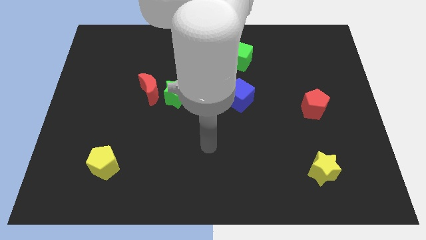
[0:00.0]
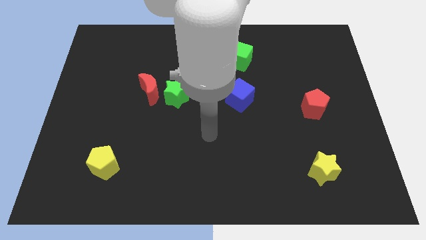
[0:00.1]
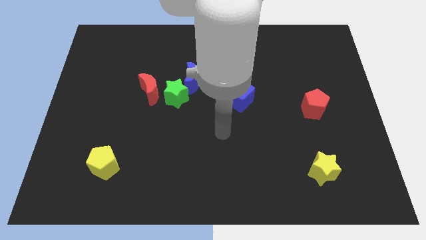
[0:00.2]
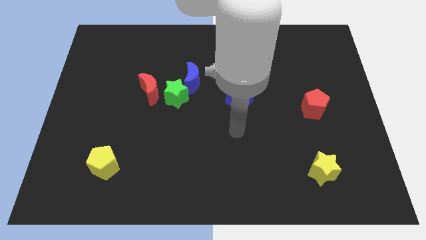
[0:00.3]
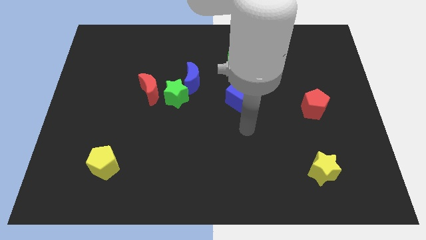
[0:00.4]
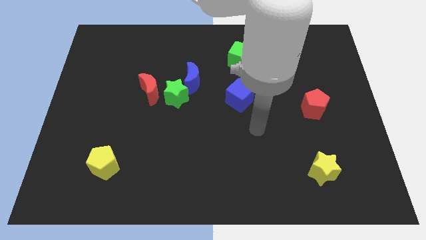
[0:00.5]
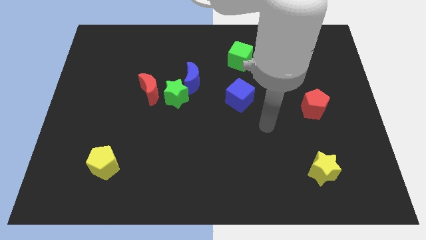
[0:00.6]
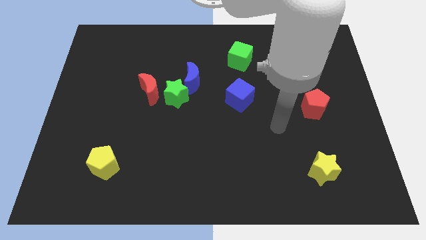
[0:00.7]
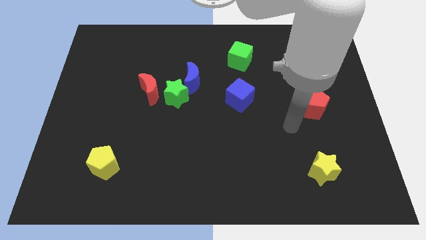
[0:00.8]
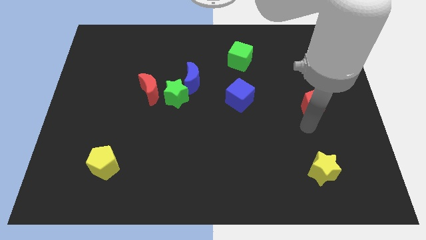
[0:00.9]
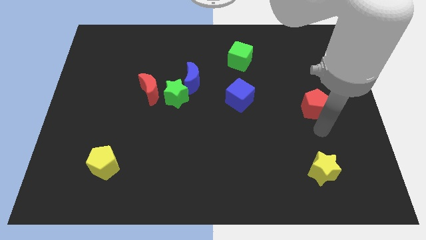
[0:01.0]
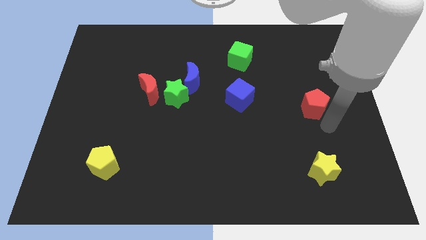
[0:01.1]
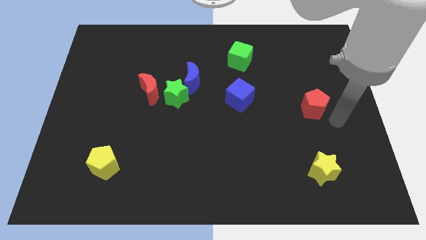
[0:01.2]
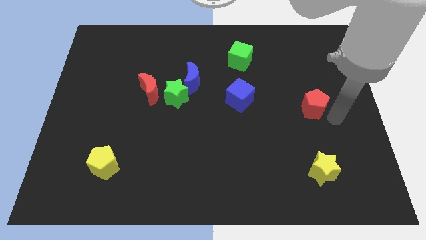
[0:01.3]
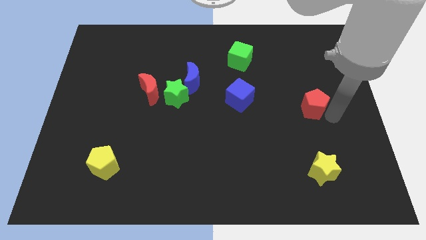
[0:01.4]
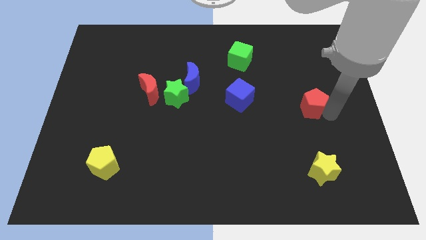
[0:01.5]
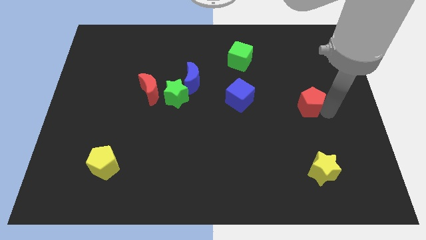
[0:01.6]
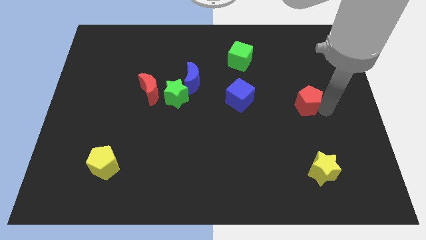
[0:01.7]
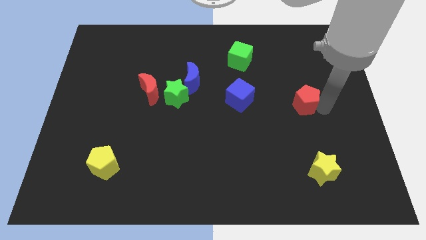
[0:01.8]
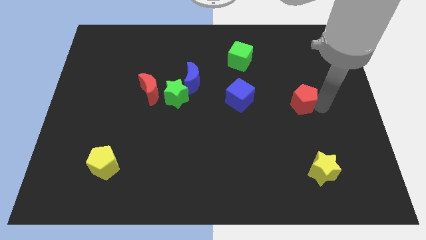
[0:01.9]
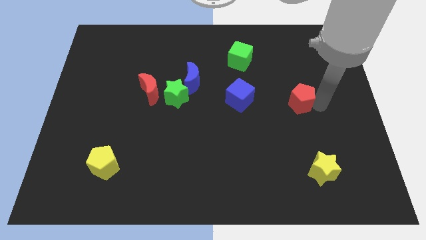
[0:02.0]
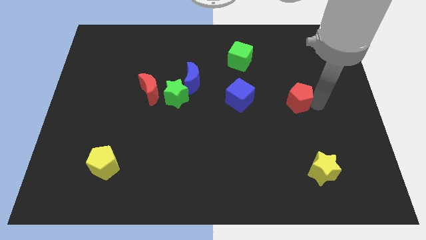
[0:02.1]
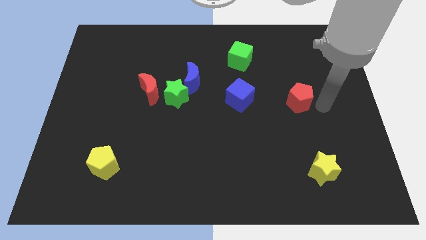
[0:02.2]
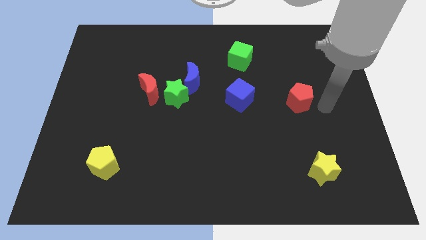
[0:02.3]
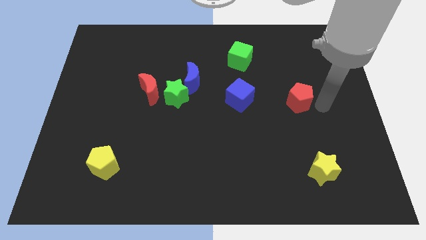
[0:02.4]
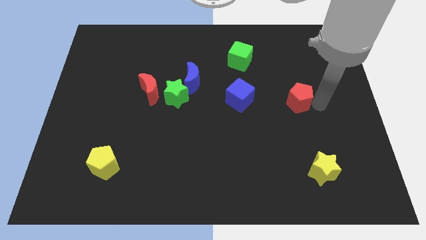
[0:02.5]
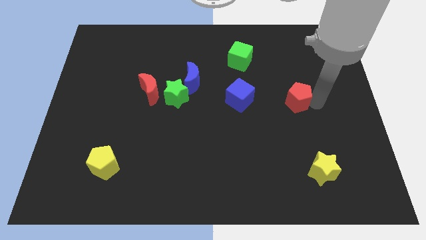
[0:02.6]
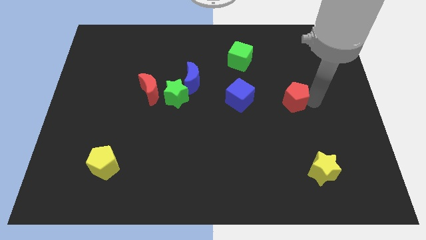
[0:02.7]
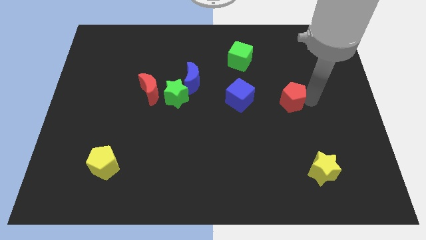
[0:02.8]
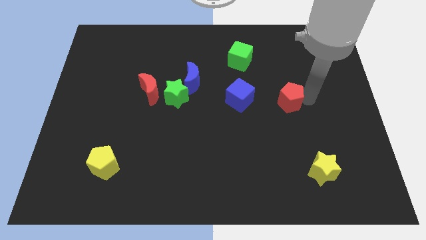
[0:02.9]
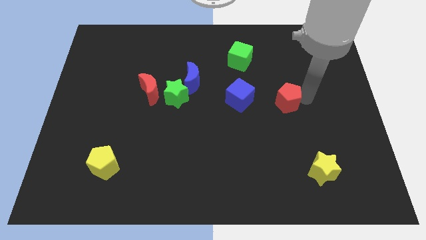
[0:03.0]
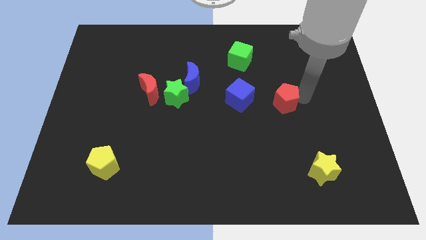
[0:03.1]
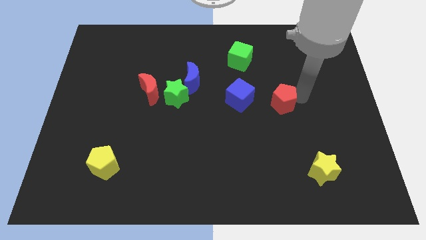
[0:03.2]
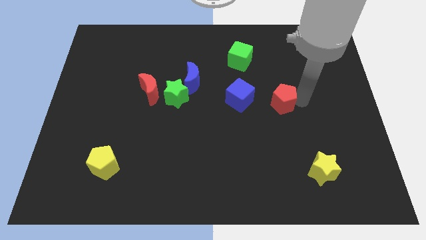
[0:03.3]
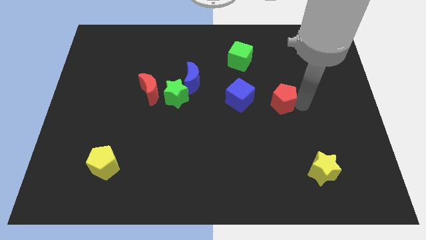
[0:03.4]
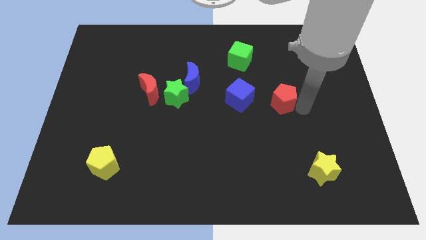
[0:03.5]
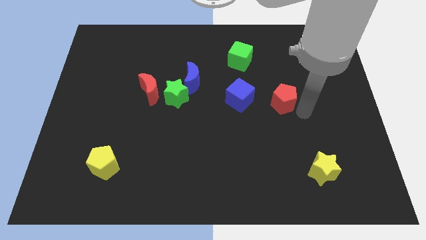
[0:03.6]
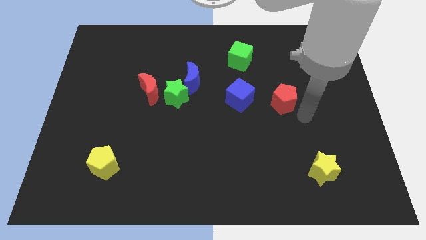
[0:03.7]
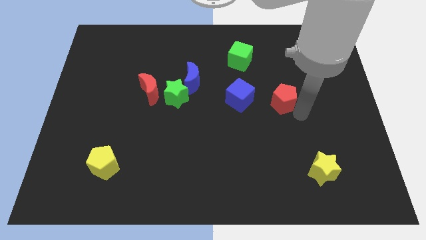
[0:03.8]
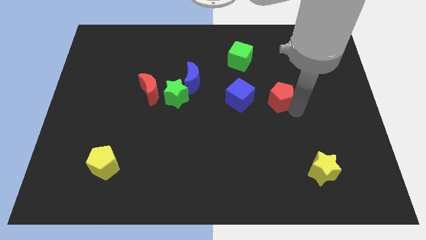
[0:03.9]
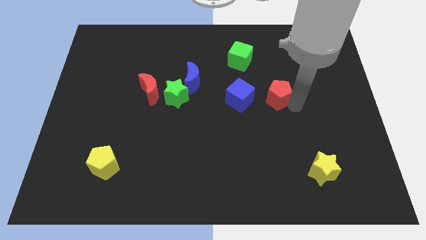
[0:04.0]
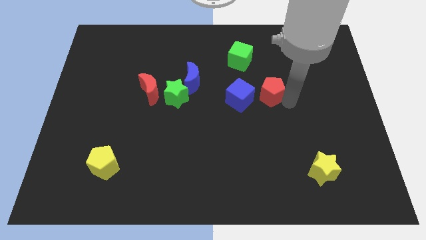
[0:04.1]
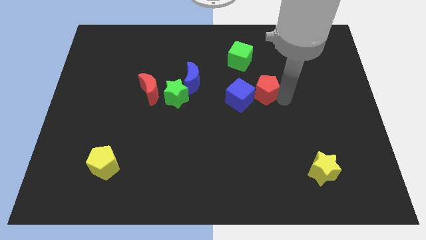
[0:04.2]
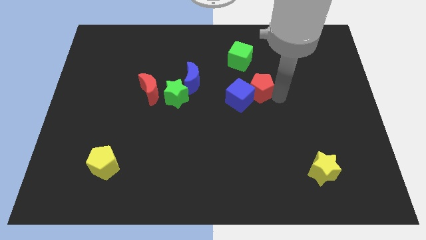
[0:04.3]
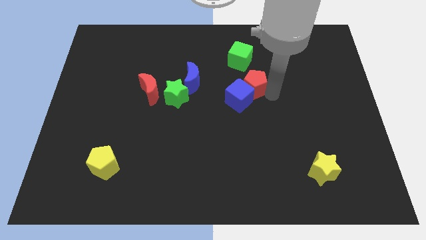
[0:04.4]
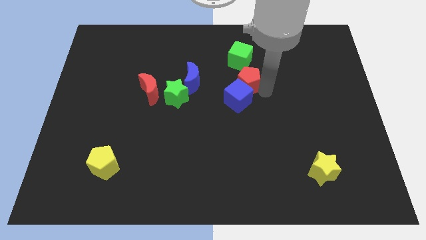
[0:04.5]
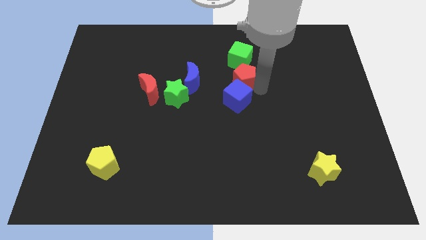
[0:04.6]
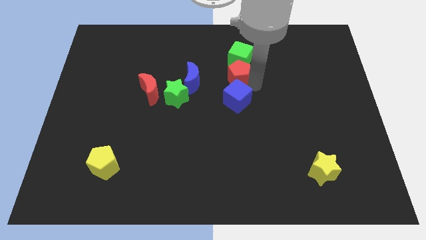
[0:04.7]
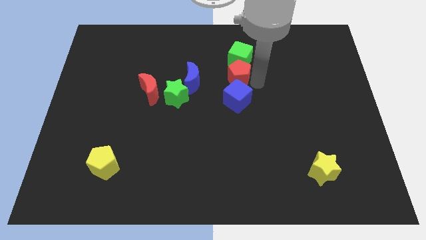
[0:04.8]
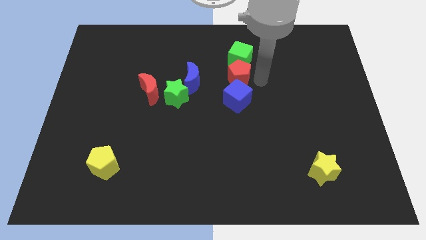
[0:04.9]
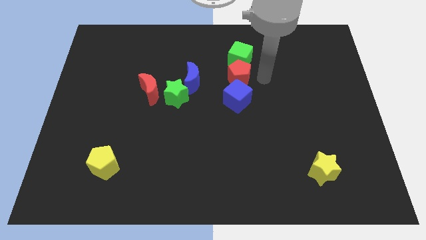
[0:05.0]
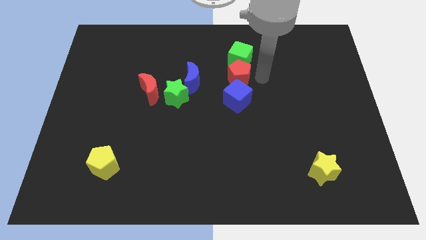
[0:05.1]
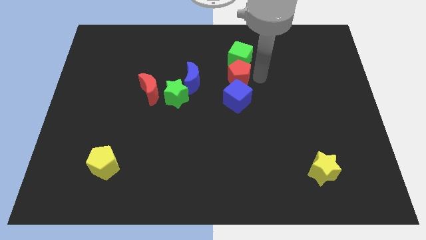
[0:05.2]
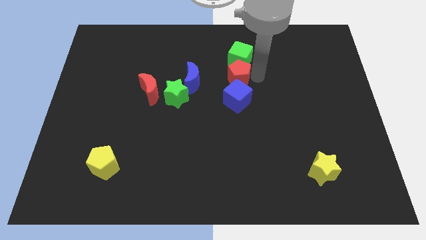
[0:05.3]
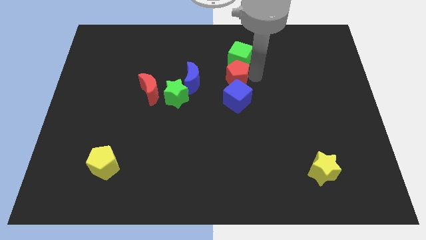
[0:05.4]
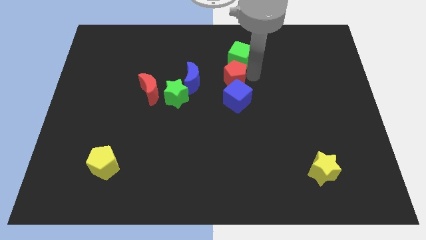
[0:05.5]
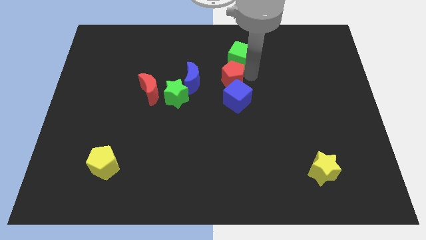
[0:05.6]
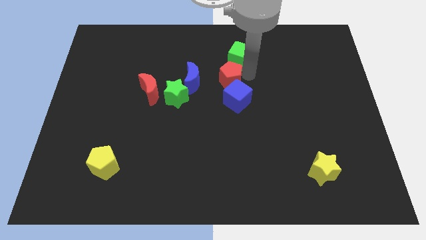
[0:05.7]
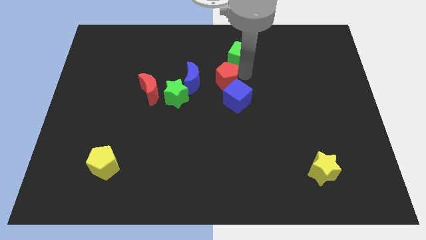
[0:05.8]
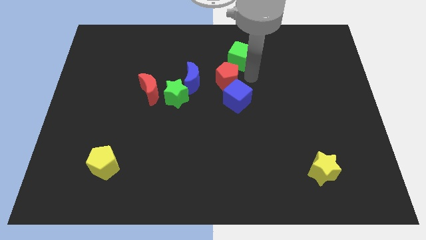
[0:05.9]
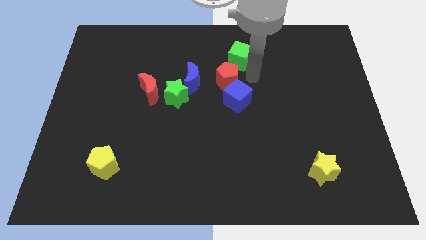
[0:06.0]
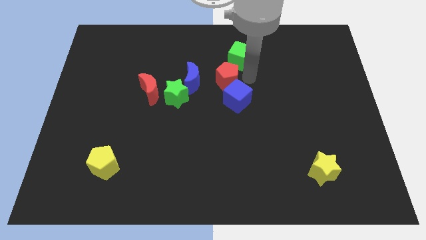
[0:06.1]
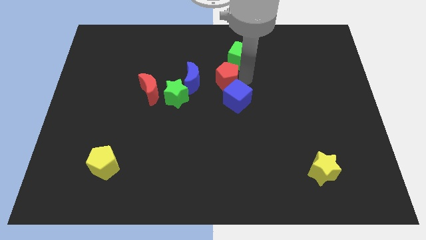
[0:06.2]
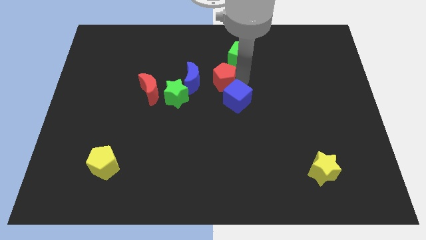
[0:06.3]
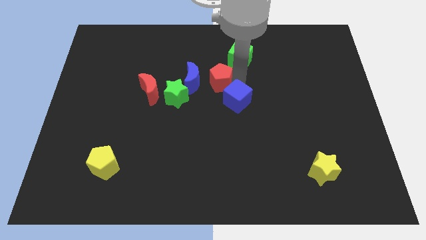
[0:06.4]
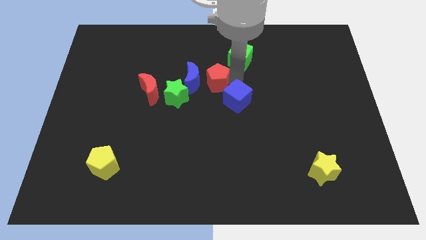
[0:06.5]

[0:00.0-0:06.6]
slide the red pentagon next to the blue moon

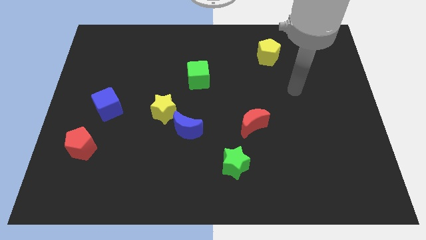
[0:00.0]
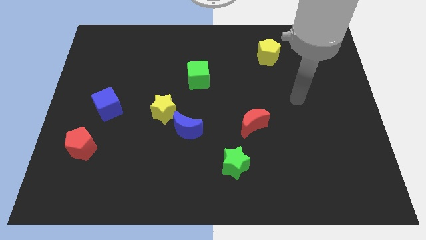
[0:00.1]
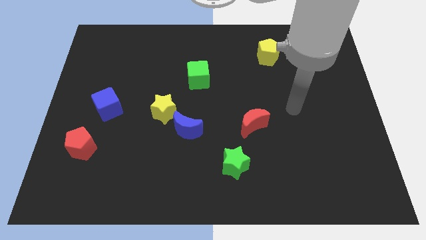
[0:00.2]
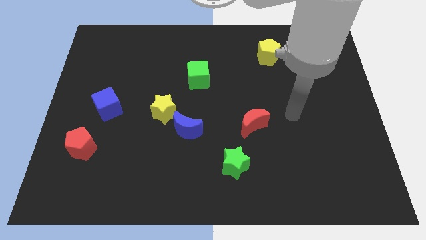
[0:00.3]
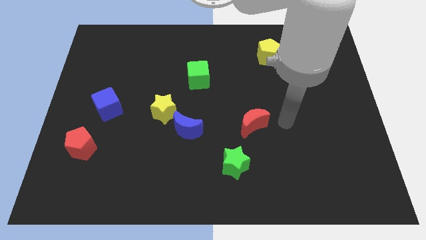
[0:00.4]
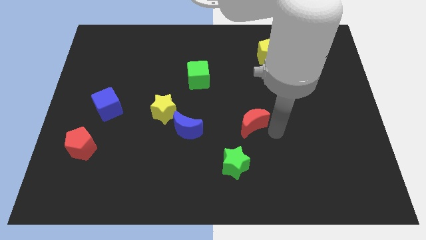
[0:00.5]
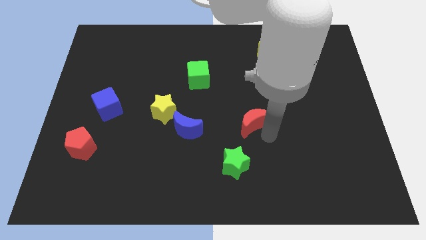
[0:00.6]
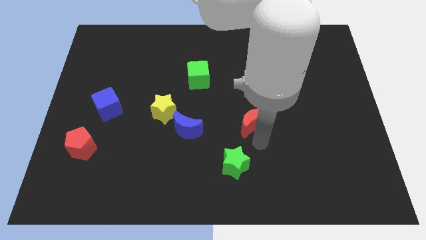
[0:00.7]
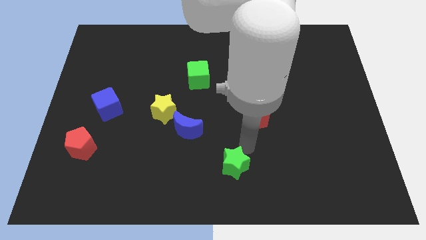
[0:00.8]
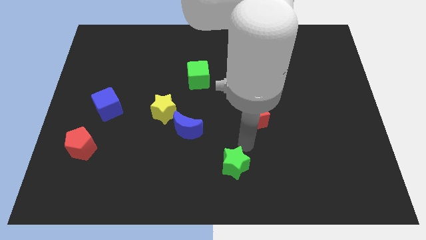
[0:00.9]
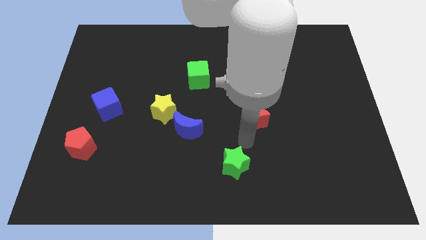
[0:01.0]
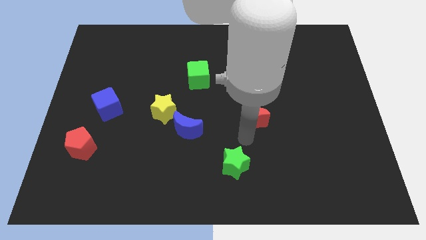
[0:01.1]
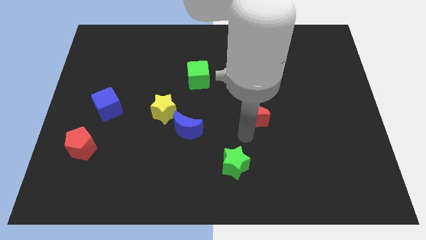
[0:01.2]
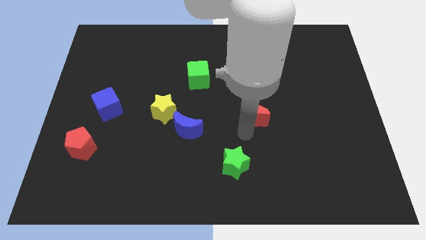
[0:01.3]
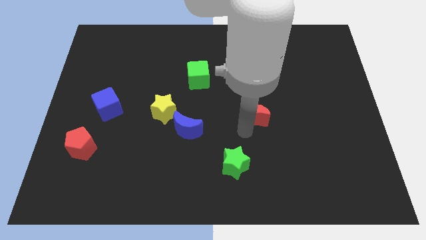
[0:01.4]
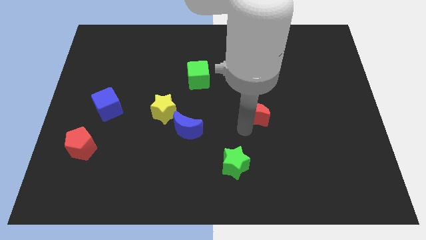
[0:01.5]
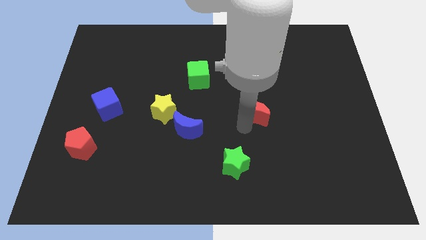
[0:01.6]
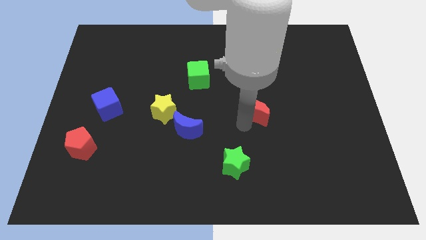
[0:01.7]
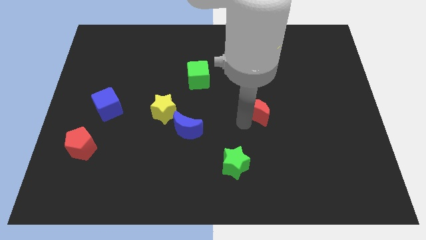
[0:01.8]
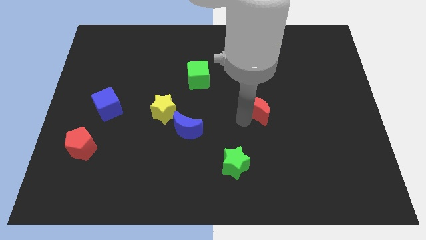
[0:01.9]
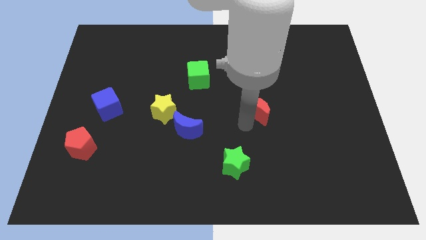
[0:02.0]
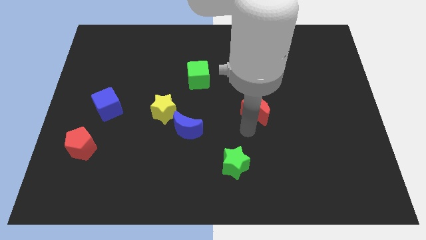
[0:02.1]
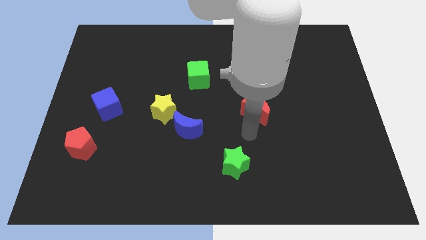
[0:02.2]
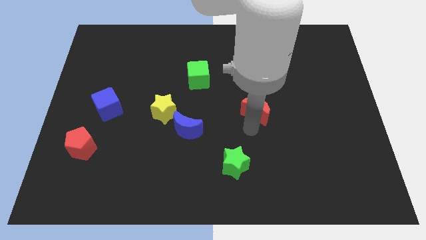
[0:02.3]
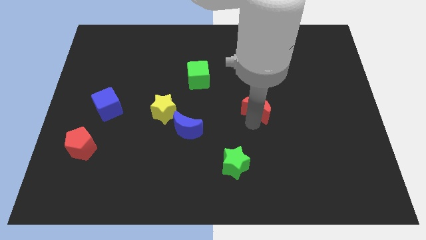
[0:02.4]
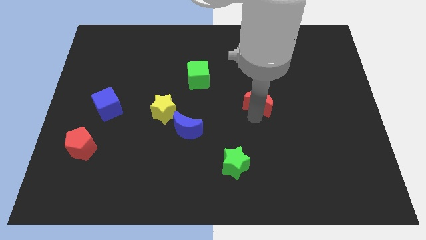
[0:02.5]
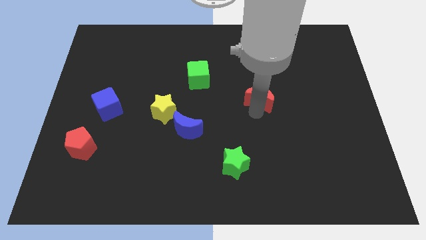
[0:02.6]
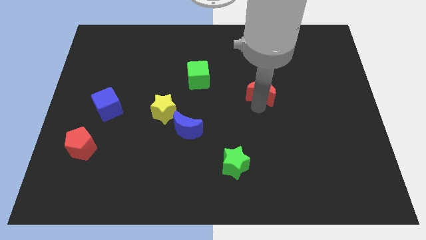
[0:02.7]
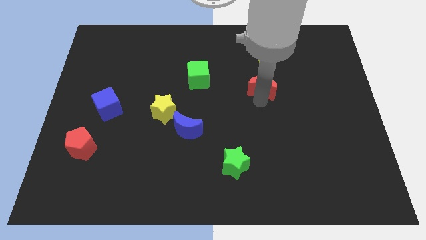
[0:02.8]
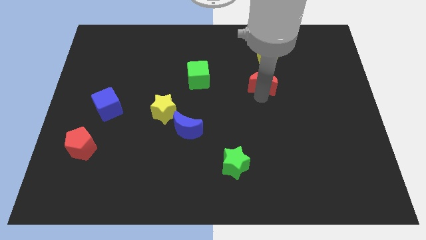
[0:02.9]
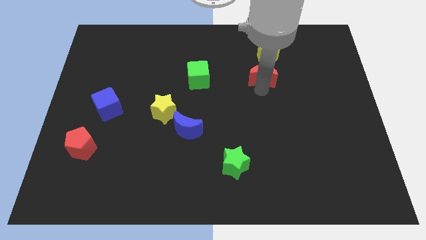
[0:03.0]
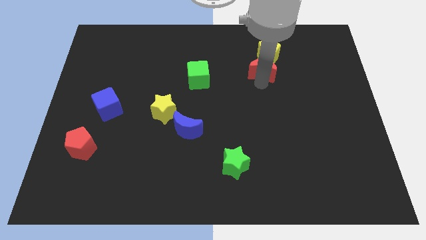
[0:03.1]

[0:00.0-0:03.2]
put the red moon to the yellow pentagon
